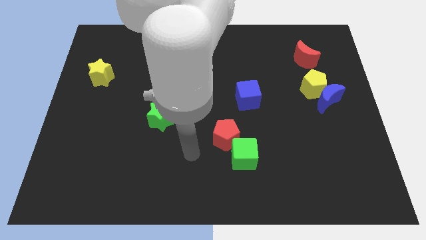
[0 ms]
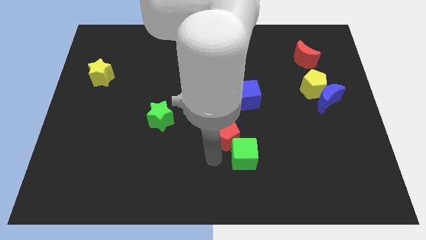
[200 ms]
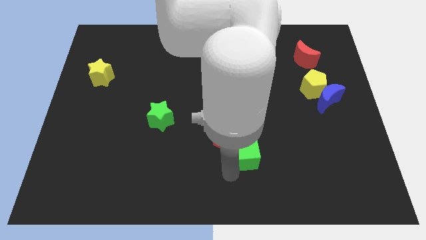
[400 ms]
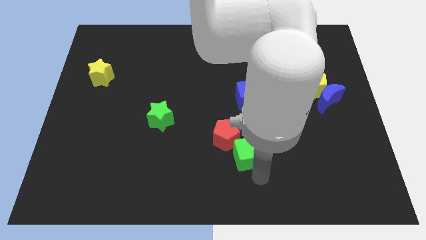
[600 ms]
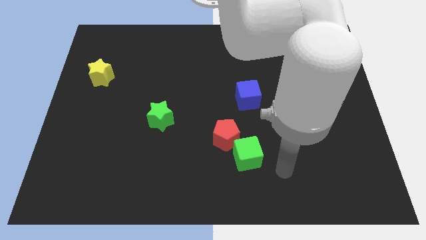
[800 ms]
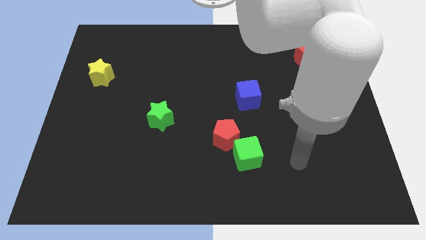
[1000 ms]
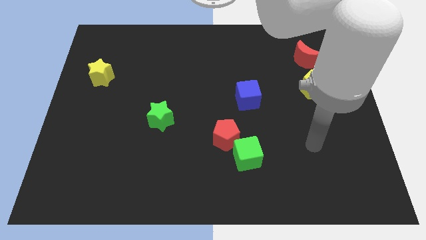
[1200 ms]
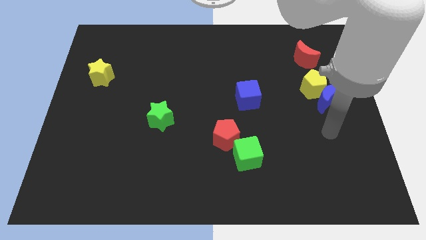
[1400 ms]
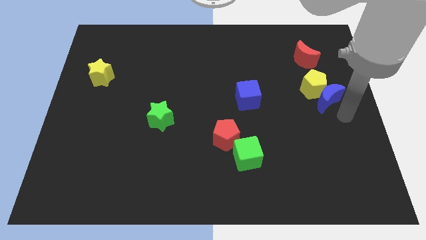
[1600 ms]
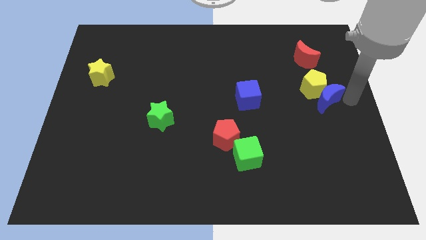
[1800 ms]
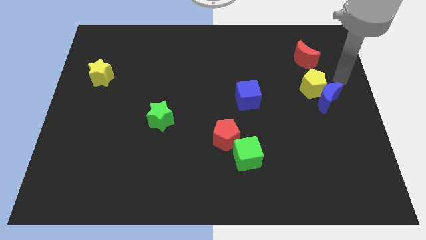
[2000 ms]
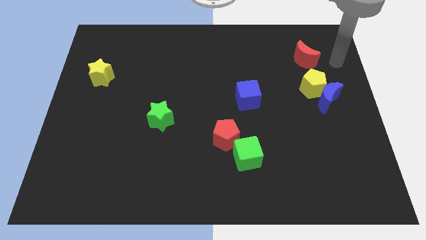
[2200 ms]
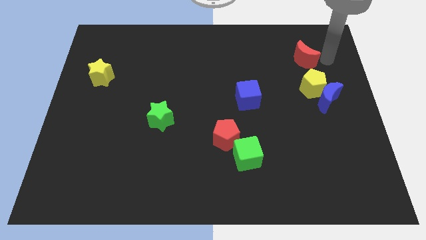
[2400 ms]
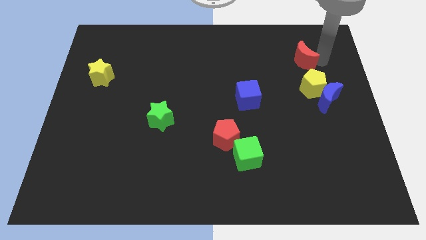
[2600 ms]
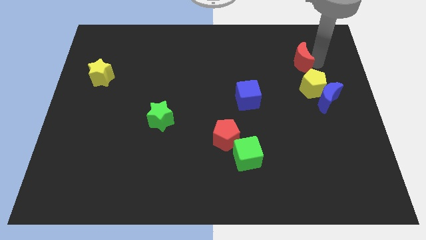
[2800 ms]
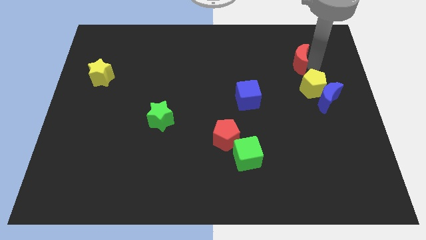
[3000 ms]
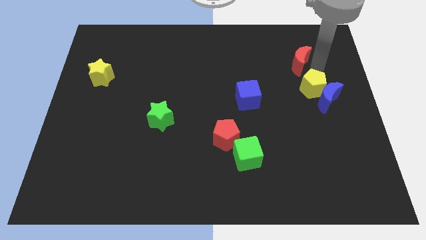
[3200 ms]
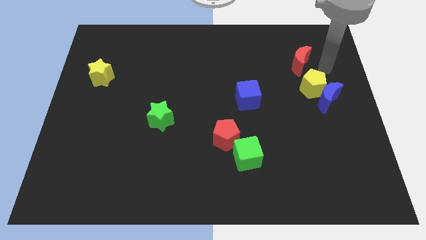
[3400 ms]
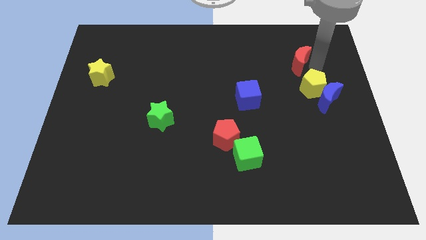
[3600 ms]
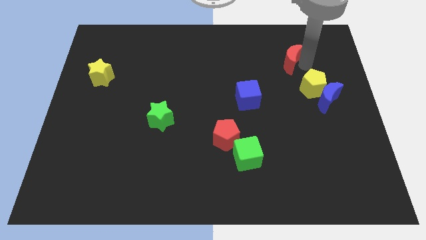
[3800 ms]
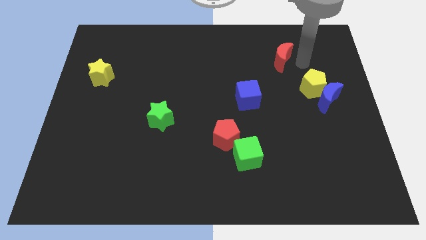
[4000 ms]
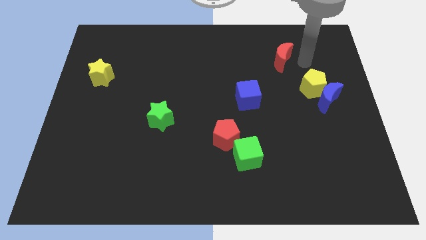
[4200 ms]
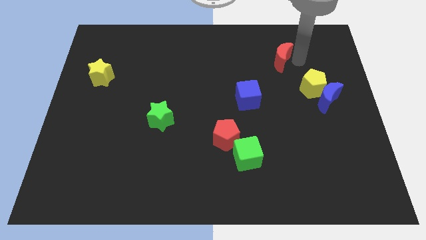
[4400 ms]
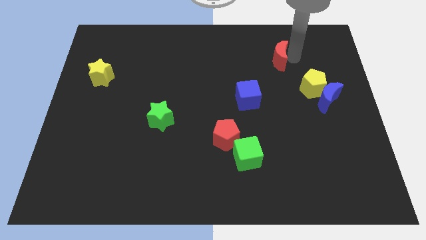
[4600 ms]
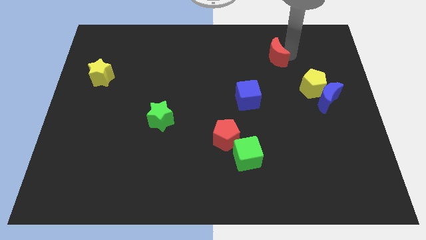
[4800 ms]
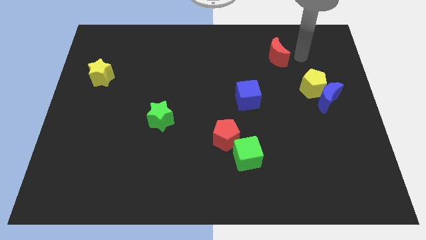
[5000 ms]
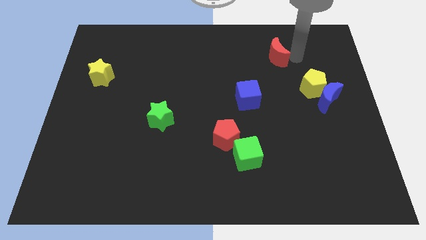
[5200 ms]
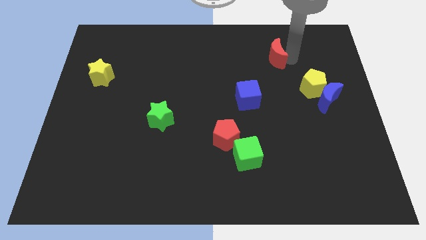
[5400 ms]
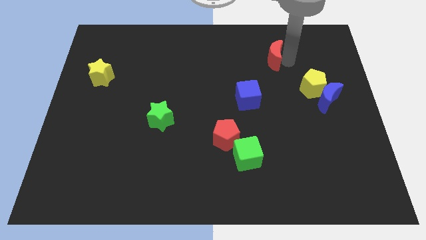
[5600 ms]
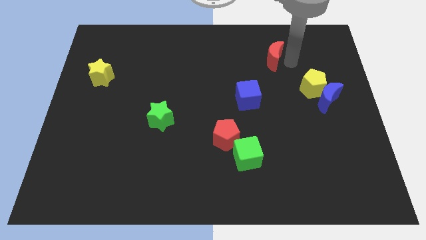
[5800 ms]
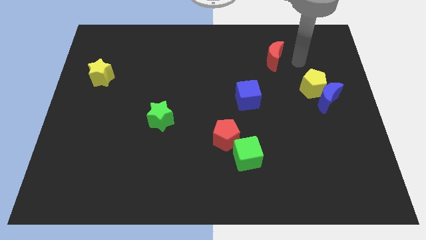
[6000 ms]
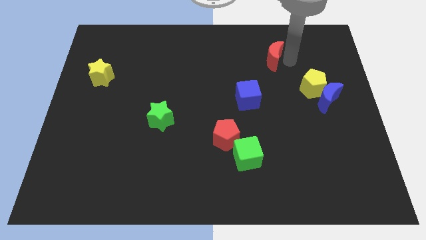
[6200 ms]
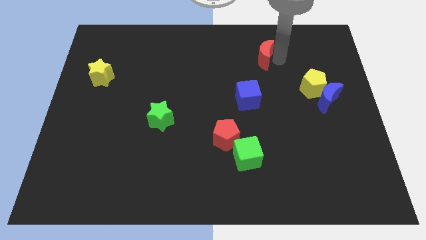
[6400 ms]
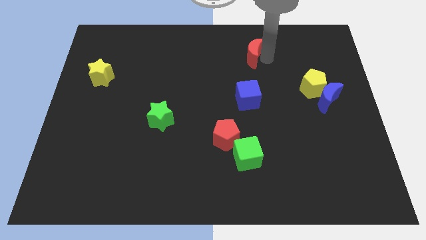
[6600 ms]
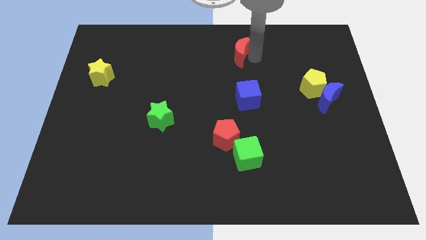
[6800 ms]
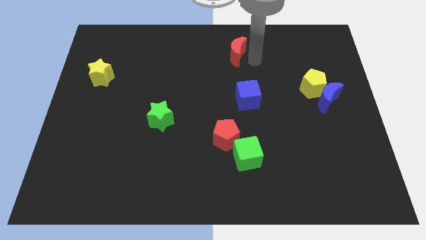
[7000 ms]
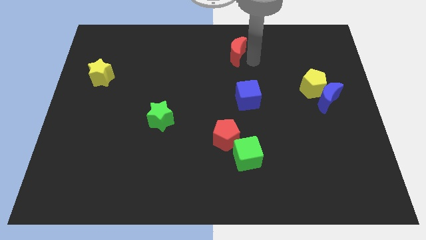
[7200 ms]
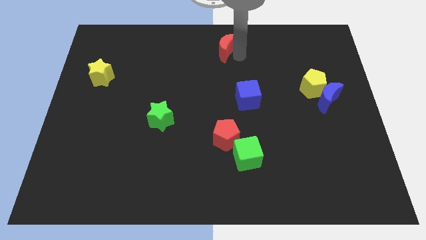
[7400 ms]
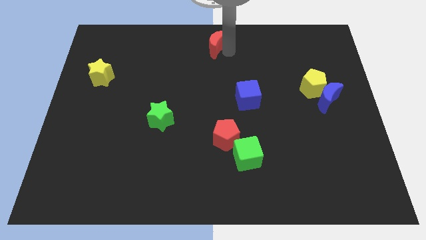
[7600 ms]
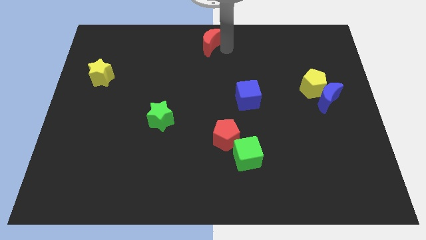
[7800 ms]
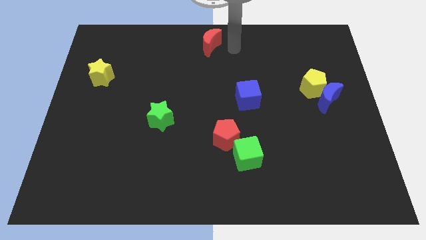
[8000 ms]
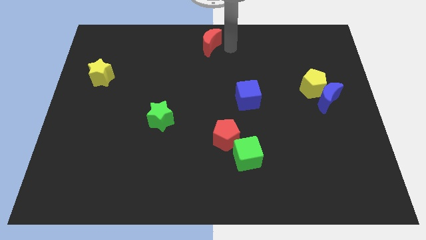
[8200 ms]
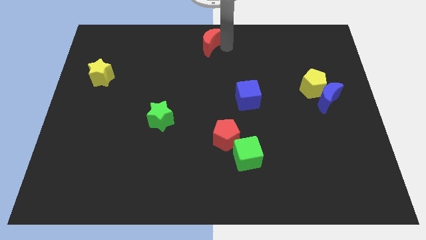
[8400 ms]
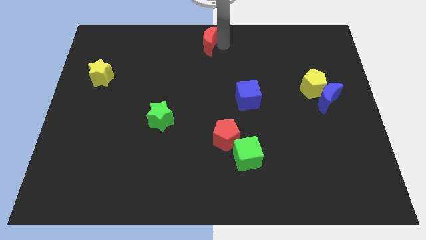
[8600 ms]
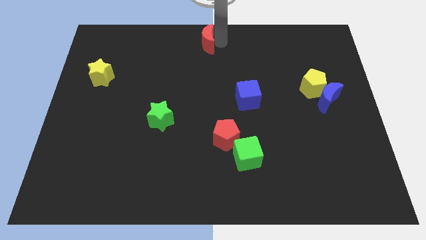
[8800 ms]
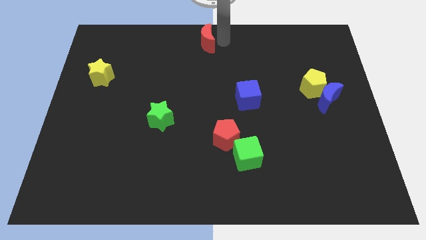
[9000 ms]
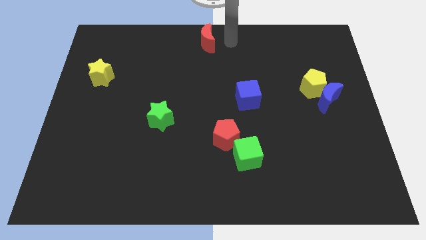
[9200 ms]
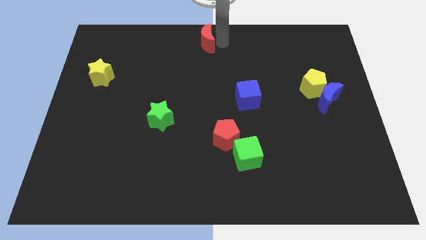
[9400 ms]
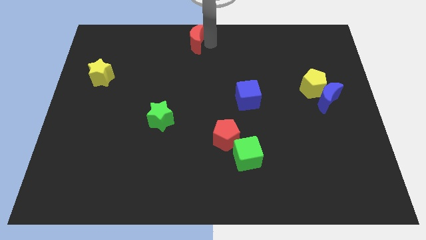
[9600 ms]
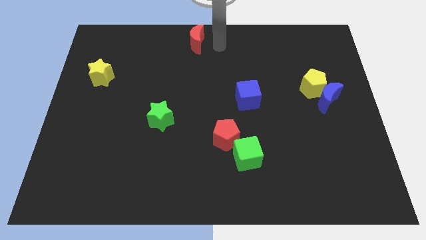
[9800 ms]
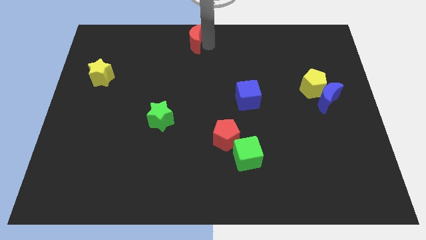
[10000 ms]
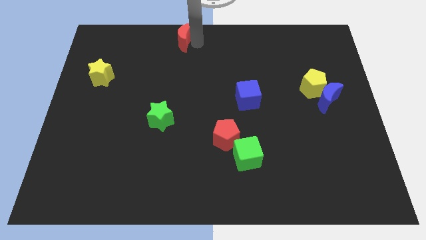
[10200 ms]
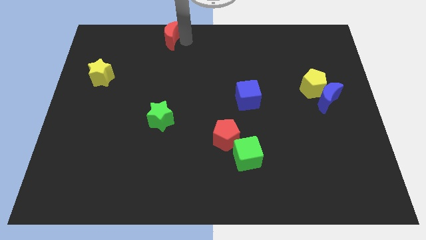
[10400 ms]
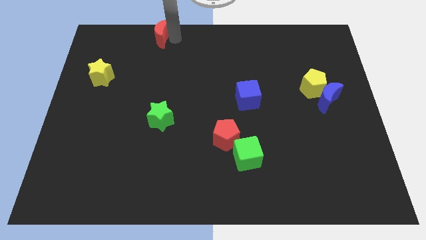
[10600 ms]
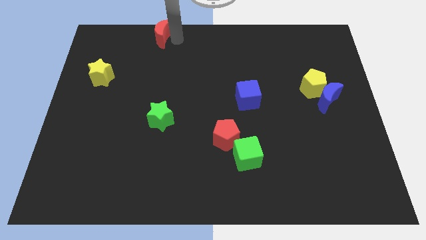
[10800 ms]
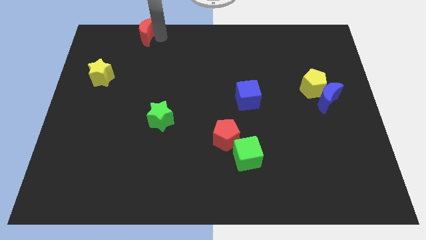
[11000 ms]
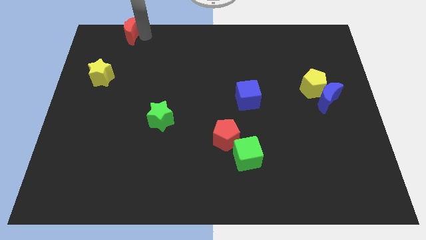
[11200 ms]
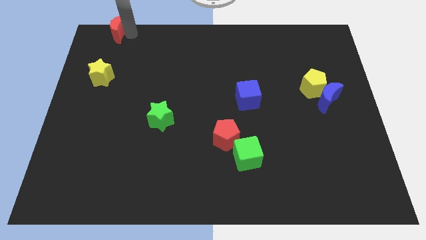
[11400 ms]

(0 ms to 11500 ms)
slide the red moon to the top left corner
